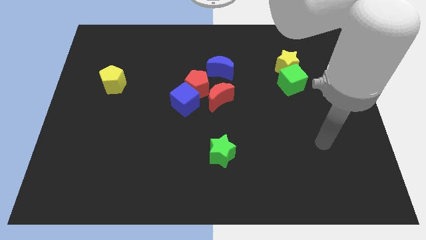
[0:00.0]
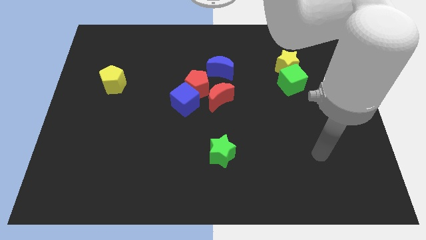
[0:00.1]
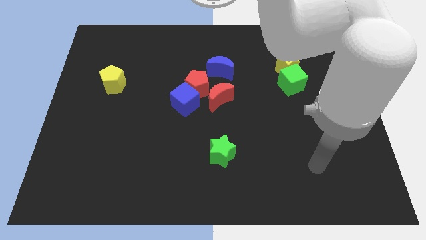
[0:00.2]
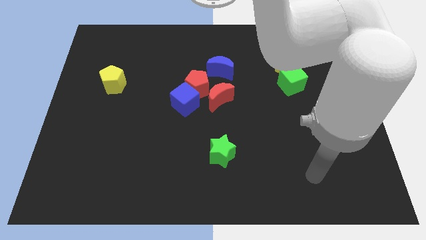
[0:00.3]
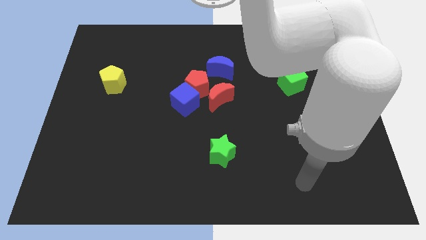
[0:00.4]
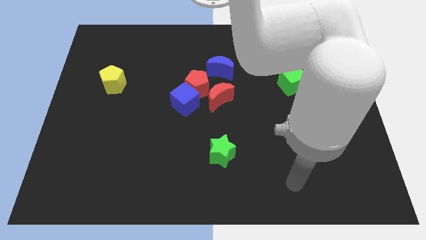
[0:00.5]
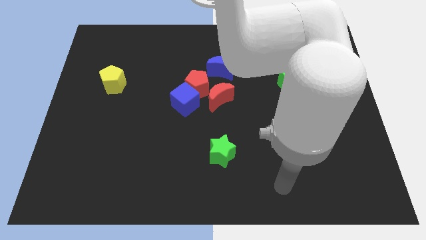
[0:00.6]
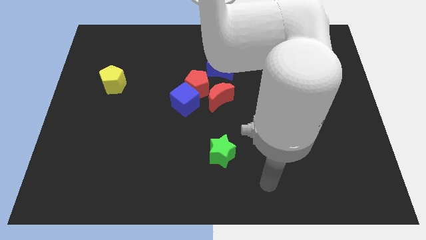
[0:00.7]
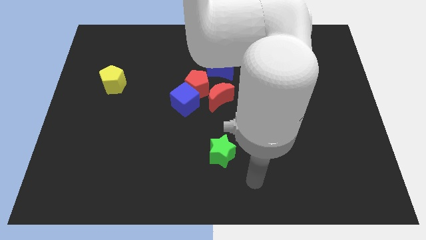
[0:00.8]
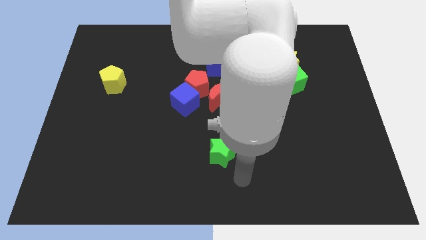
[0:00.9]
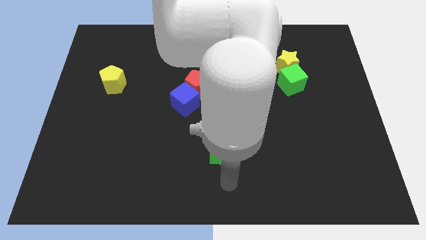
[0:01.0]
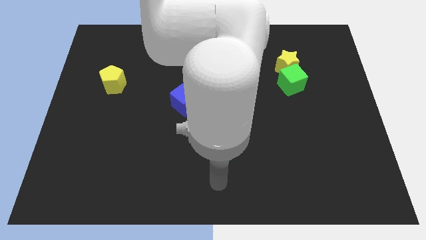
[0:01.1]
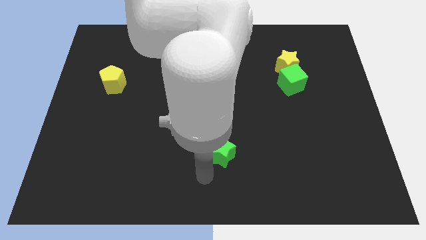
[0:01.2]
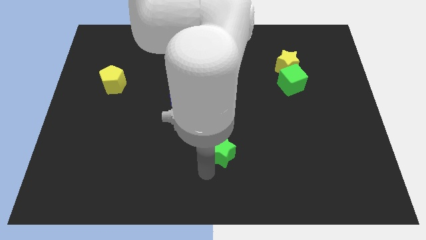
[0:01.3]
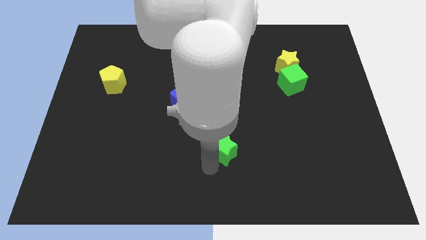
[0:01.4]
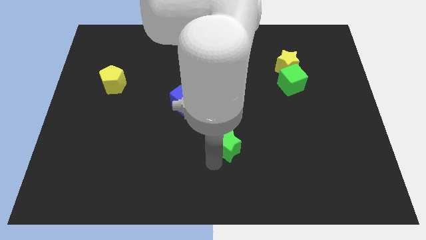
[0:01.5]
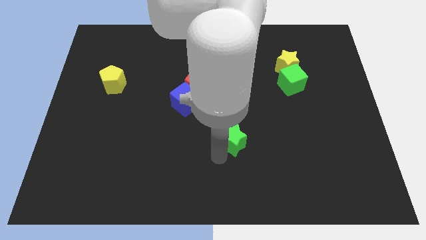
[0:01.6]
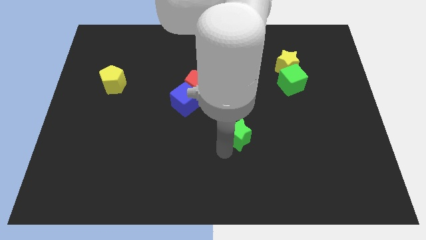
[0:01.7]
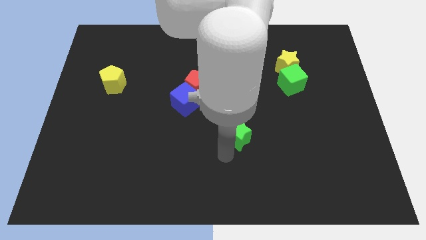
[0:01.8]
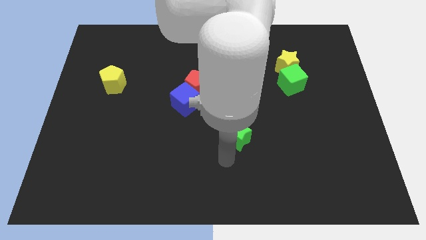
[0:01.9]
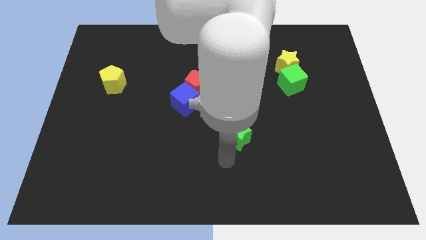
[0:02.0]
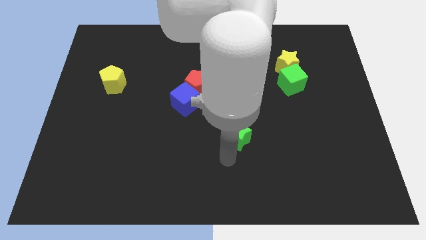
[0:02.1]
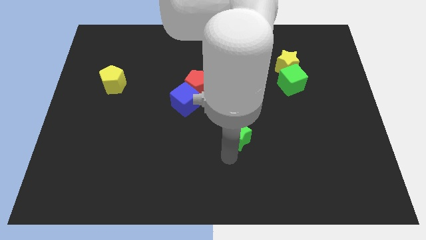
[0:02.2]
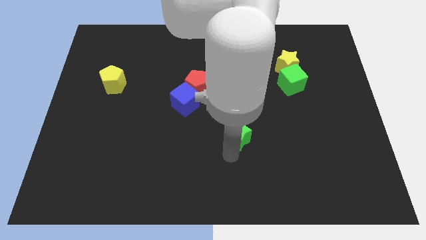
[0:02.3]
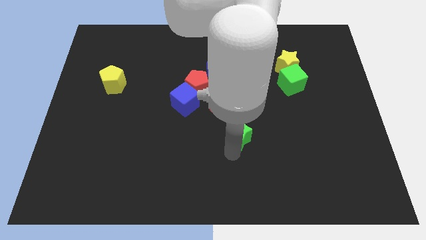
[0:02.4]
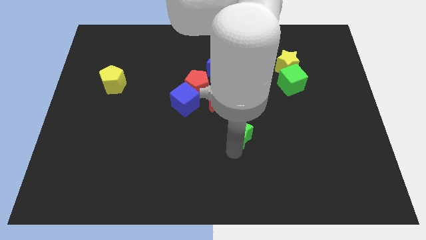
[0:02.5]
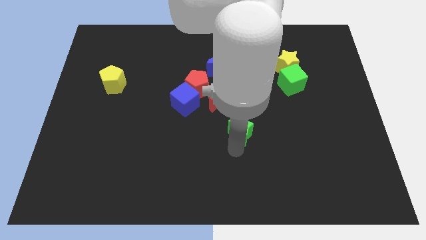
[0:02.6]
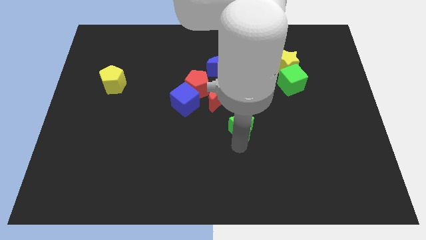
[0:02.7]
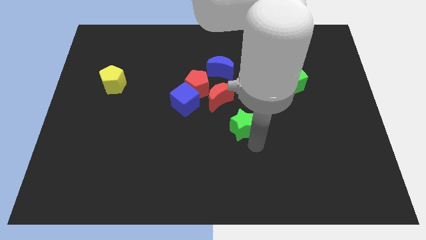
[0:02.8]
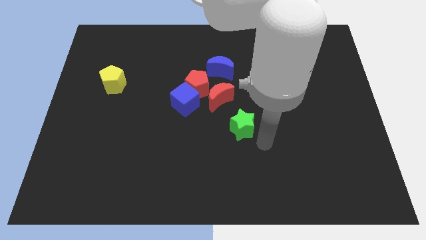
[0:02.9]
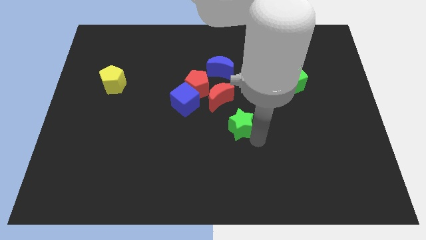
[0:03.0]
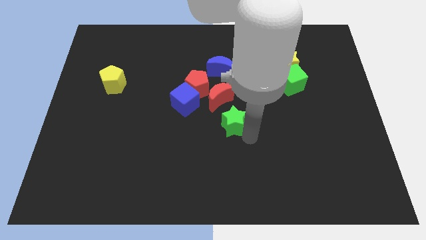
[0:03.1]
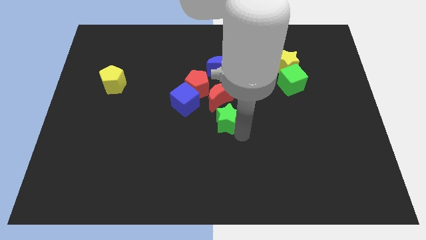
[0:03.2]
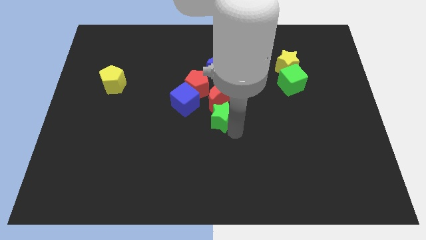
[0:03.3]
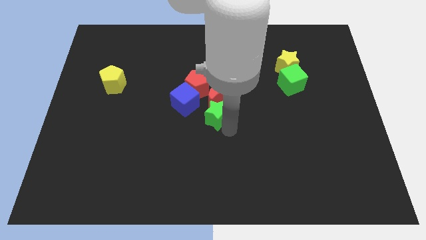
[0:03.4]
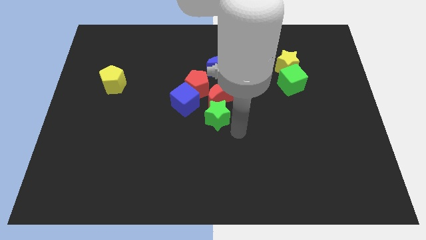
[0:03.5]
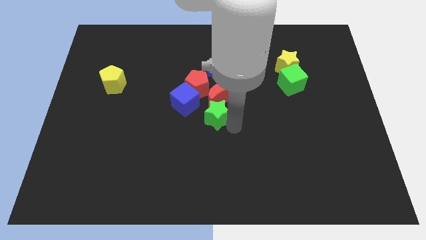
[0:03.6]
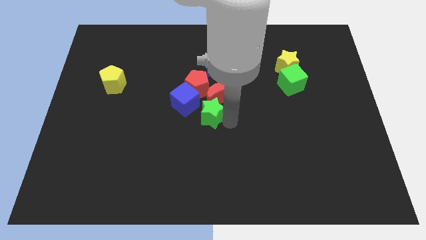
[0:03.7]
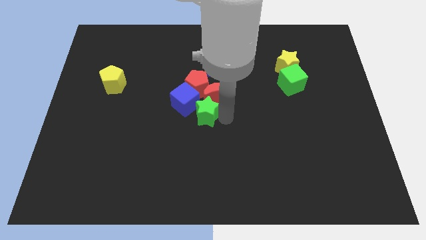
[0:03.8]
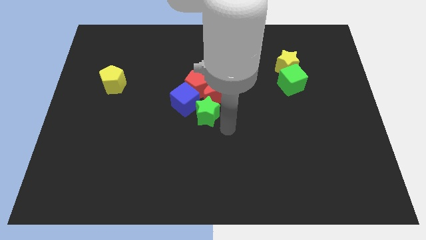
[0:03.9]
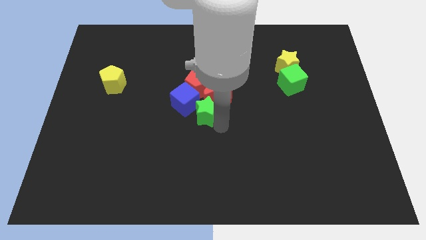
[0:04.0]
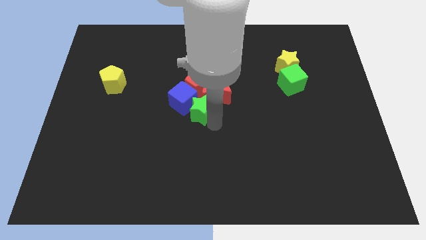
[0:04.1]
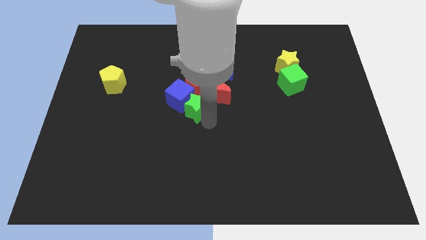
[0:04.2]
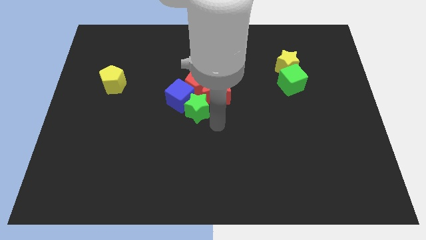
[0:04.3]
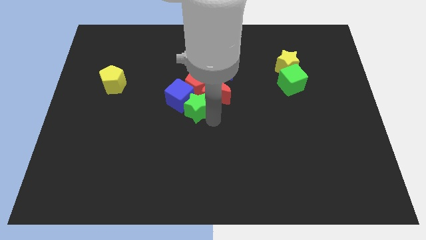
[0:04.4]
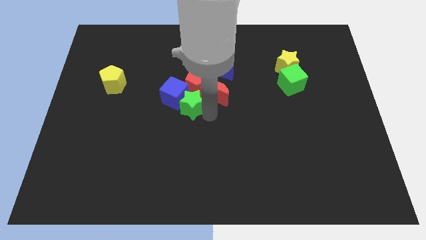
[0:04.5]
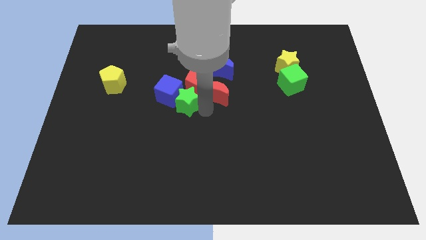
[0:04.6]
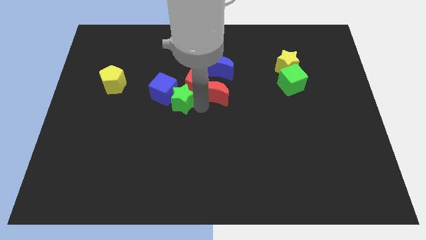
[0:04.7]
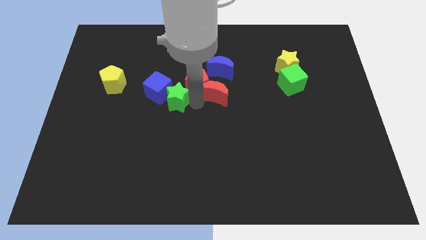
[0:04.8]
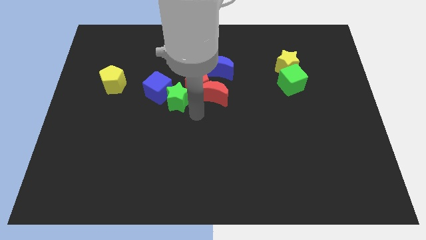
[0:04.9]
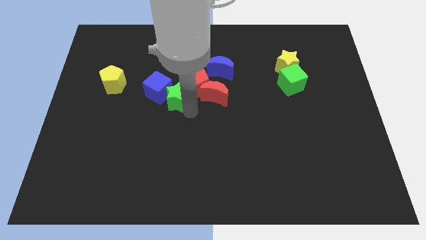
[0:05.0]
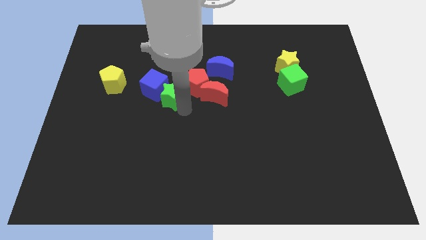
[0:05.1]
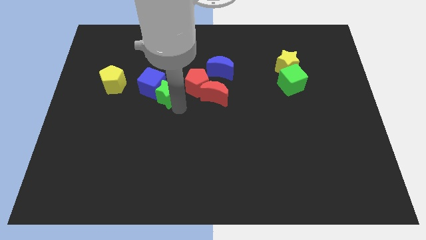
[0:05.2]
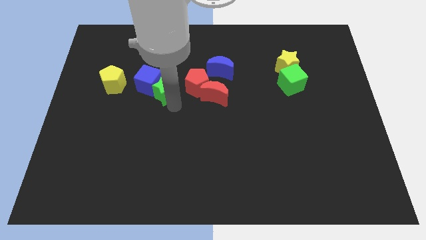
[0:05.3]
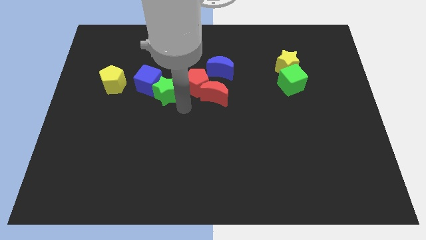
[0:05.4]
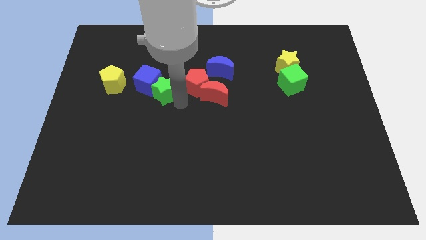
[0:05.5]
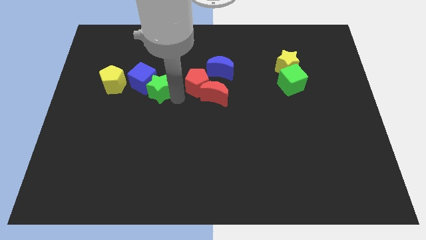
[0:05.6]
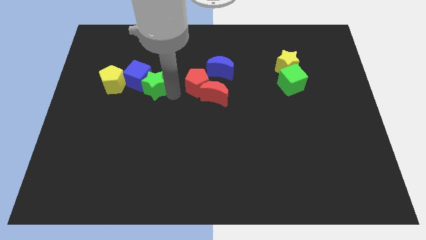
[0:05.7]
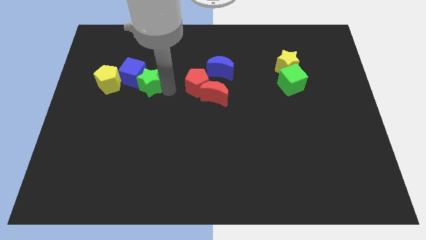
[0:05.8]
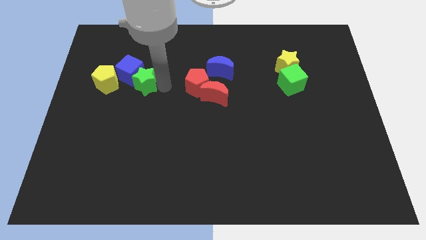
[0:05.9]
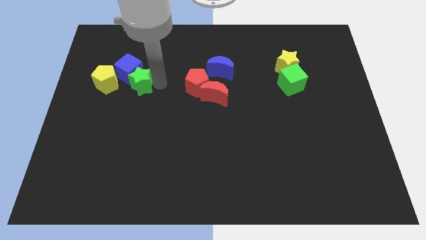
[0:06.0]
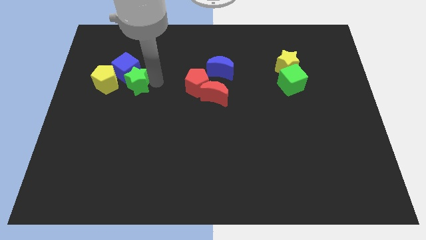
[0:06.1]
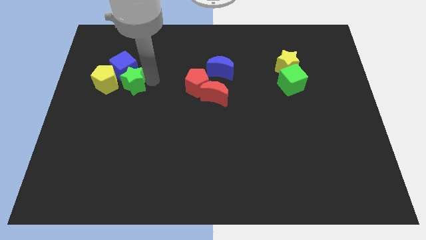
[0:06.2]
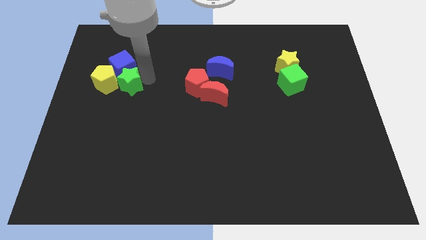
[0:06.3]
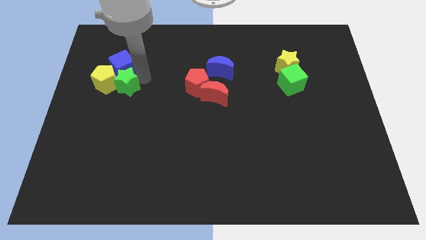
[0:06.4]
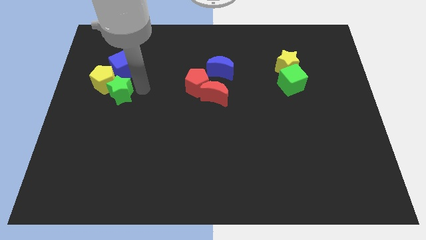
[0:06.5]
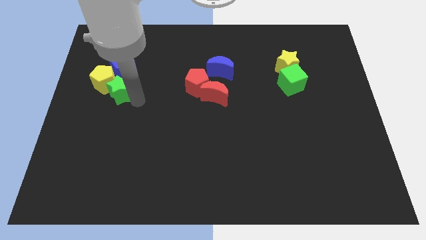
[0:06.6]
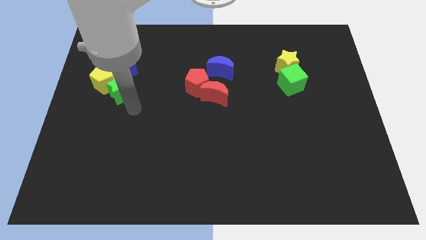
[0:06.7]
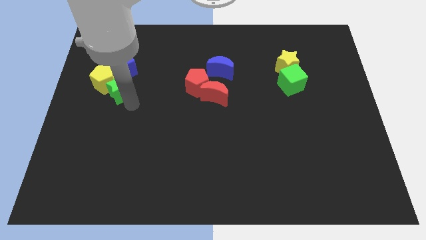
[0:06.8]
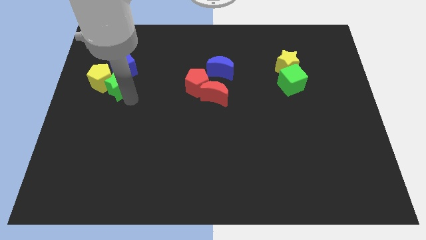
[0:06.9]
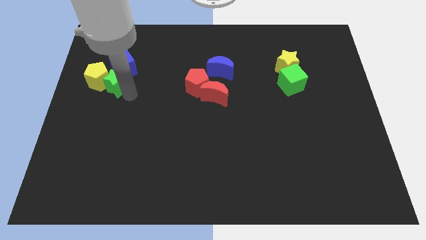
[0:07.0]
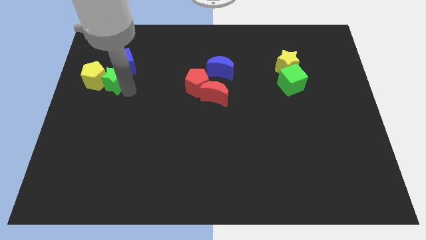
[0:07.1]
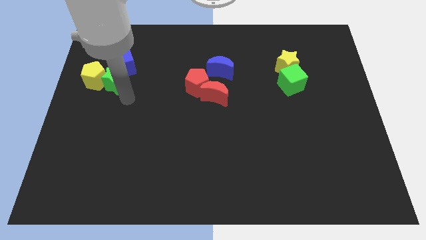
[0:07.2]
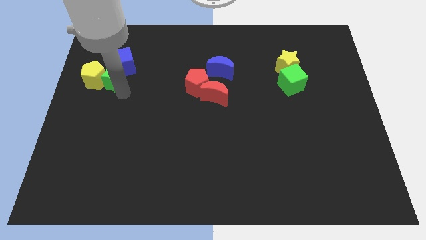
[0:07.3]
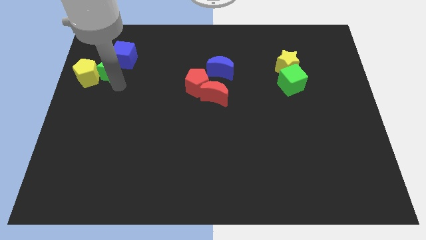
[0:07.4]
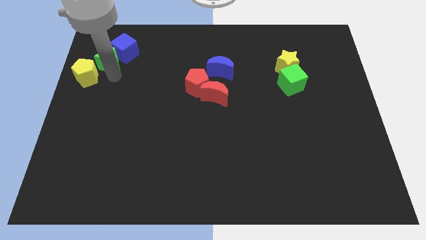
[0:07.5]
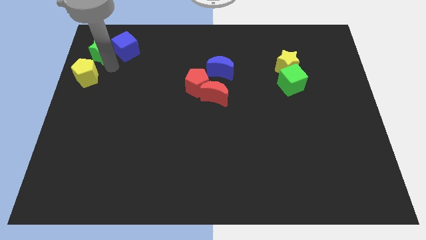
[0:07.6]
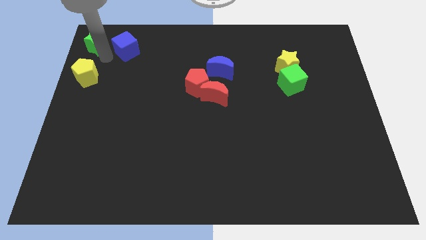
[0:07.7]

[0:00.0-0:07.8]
move the green star to the top left of the board
